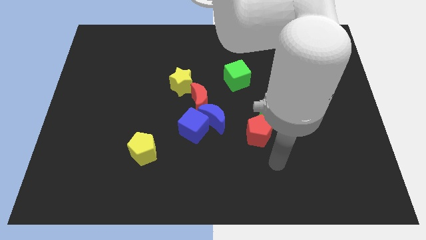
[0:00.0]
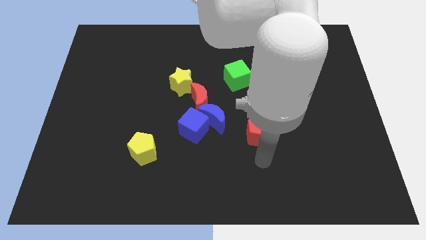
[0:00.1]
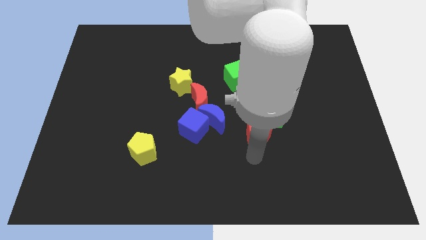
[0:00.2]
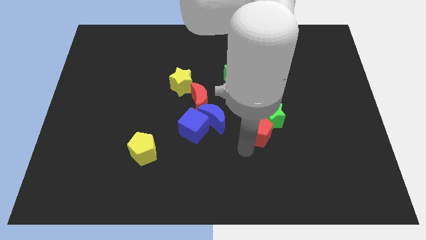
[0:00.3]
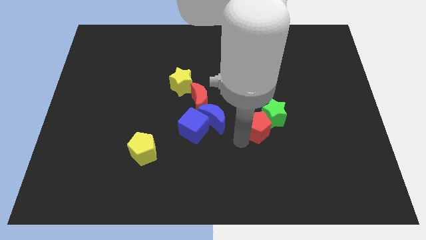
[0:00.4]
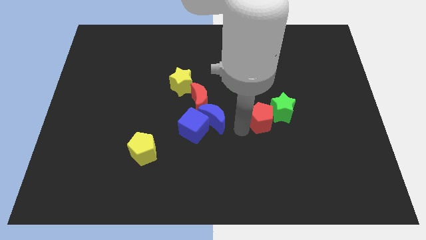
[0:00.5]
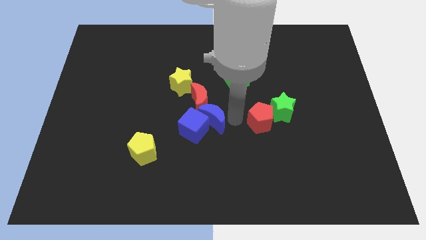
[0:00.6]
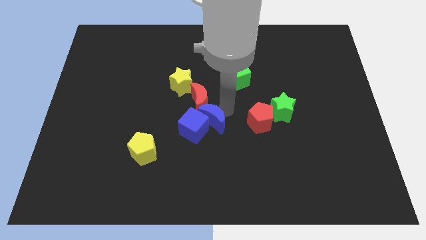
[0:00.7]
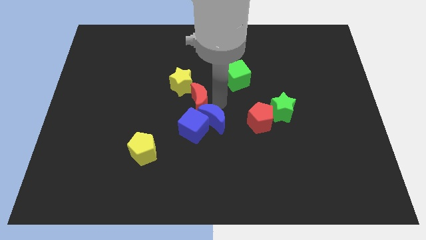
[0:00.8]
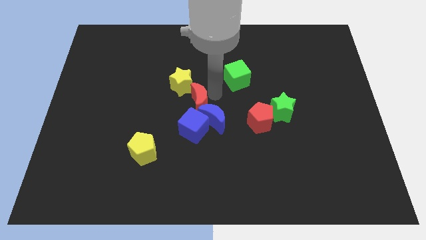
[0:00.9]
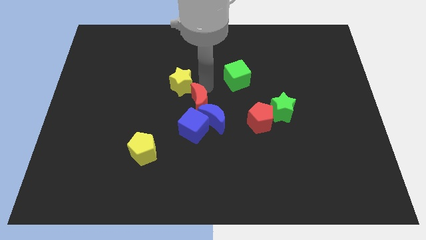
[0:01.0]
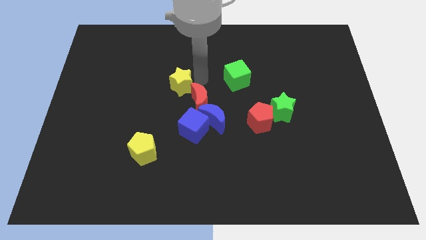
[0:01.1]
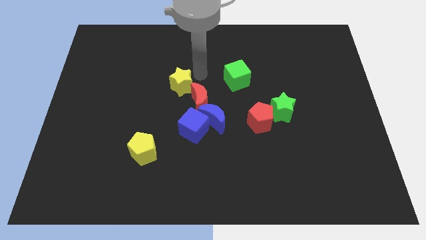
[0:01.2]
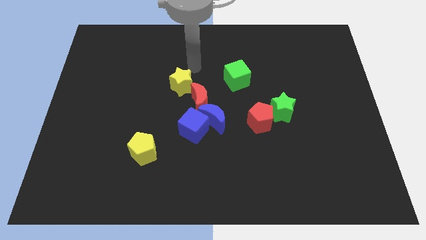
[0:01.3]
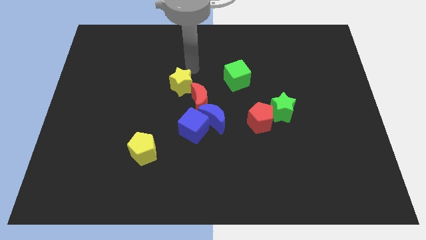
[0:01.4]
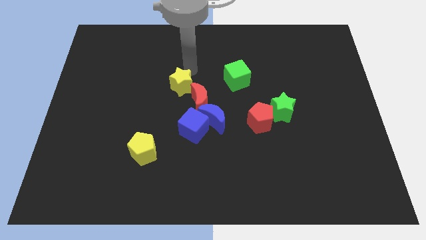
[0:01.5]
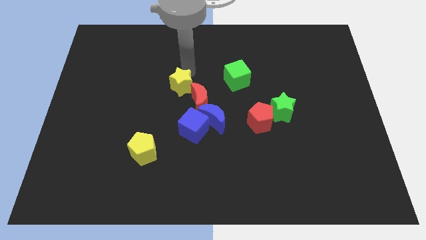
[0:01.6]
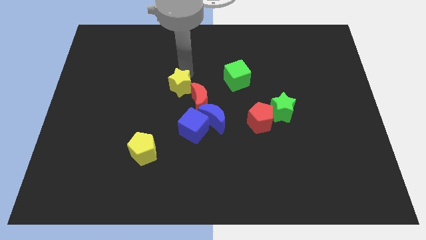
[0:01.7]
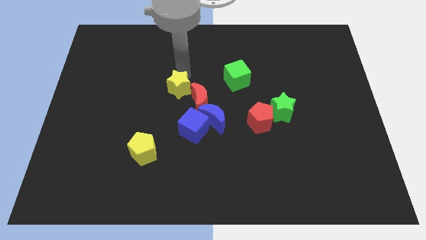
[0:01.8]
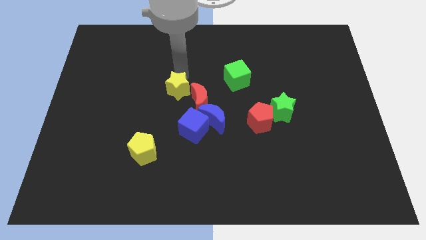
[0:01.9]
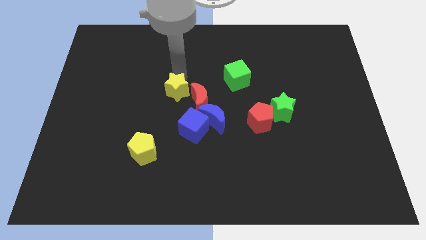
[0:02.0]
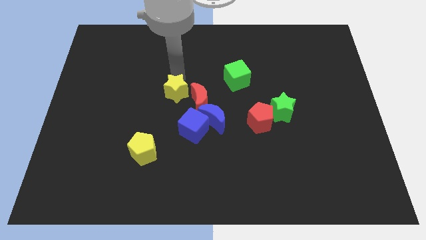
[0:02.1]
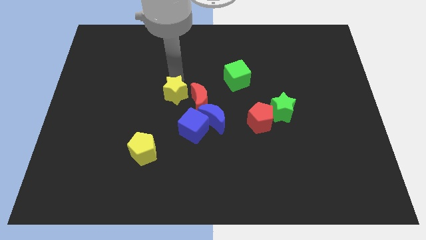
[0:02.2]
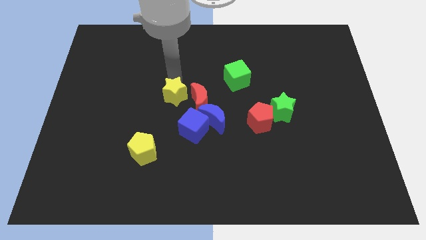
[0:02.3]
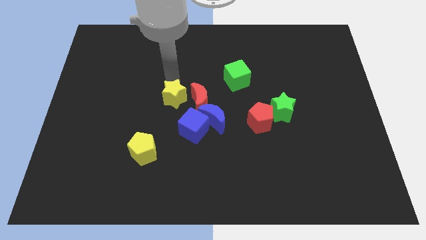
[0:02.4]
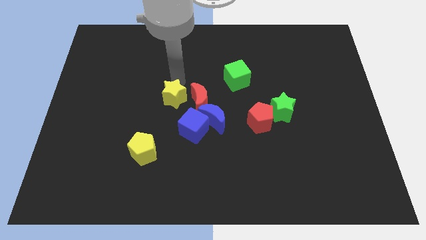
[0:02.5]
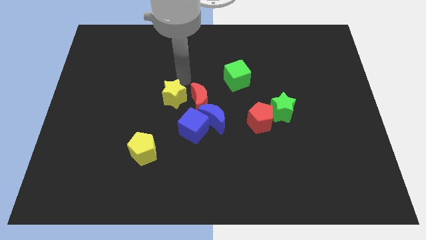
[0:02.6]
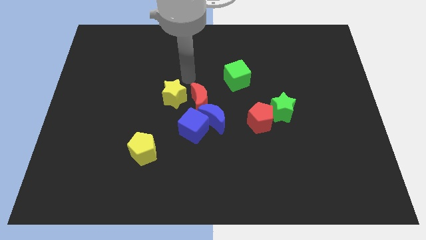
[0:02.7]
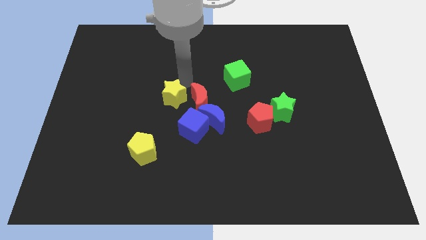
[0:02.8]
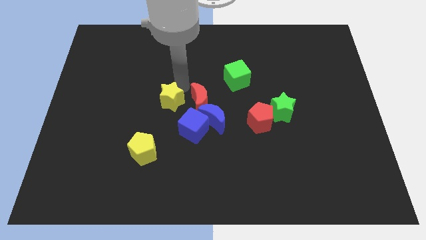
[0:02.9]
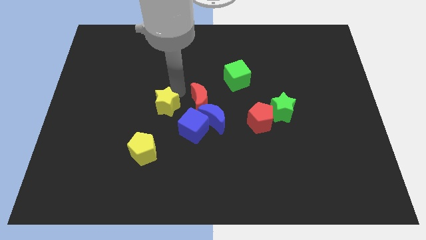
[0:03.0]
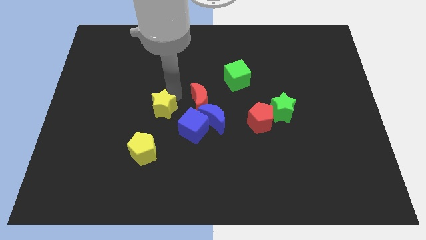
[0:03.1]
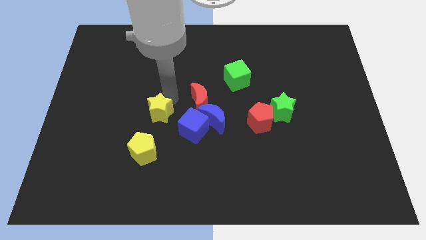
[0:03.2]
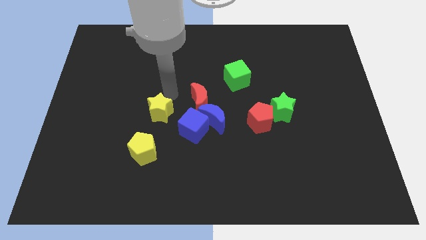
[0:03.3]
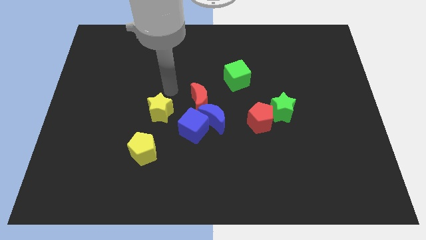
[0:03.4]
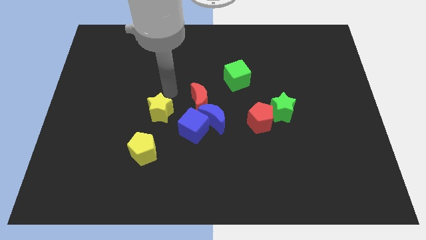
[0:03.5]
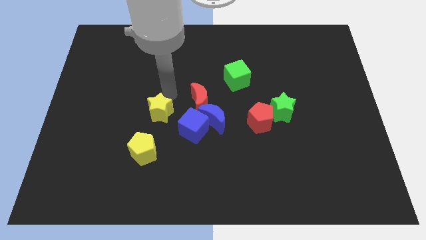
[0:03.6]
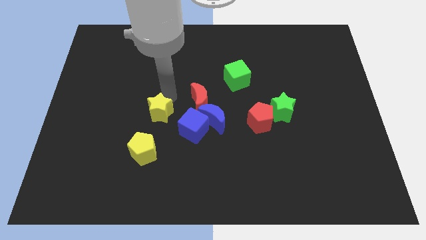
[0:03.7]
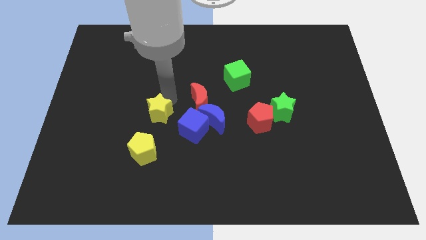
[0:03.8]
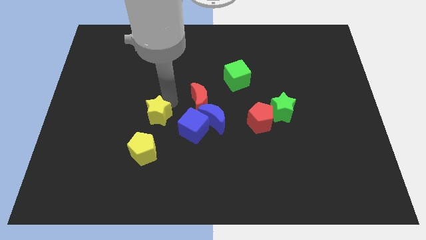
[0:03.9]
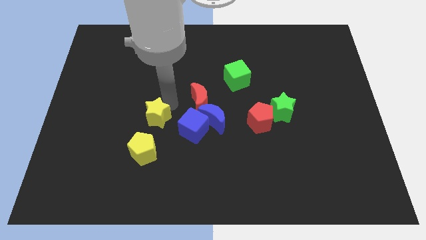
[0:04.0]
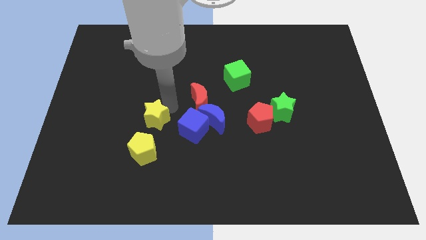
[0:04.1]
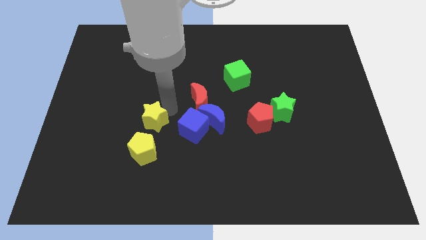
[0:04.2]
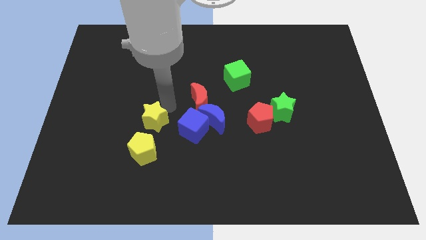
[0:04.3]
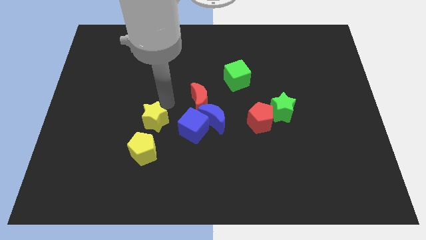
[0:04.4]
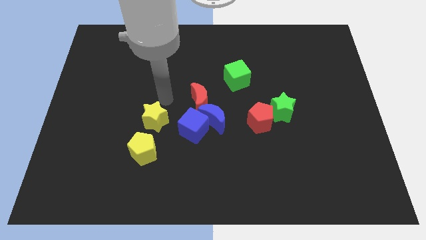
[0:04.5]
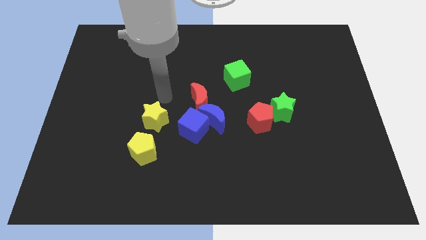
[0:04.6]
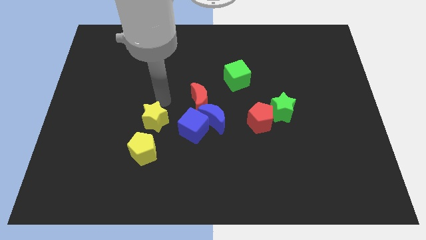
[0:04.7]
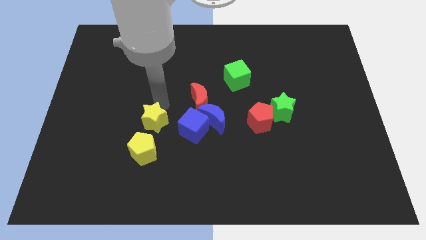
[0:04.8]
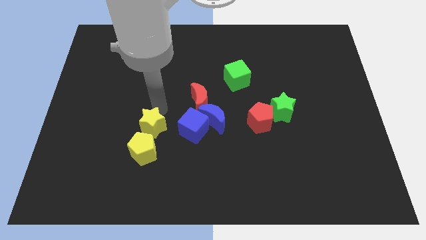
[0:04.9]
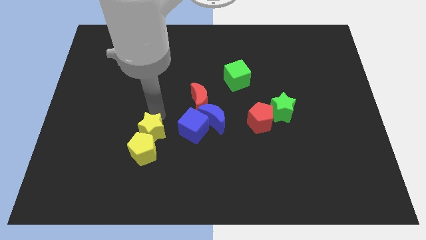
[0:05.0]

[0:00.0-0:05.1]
slide the yellow star next to the yellow pentagon

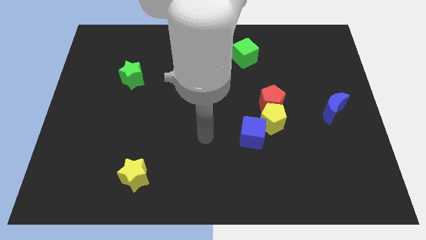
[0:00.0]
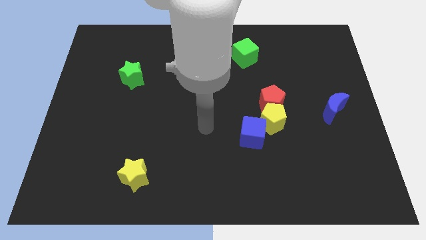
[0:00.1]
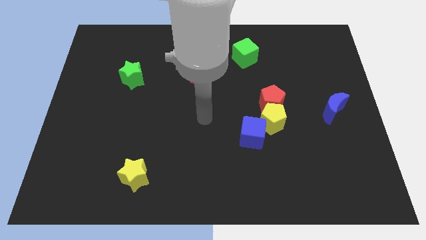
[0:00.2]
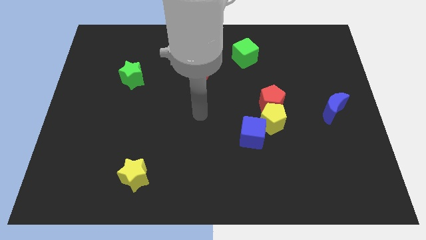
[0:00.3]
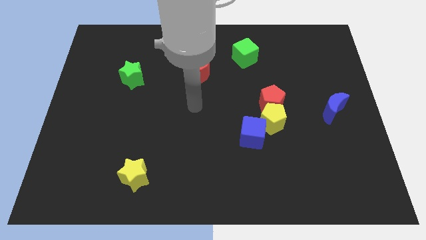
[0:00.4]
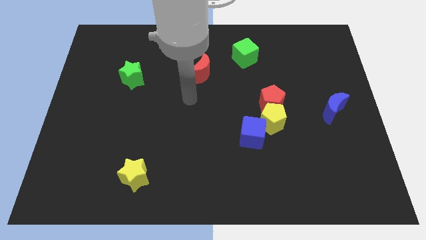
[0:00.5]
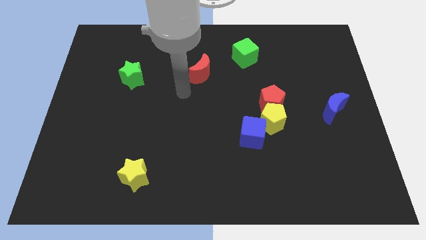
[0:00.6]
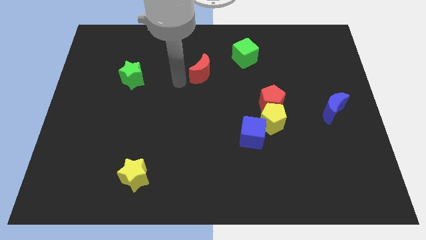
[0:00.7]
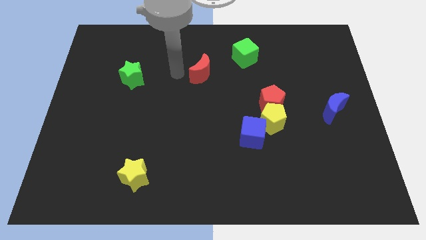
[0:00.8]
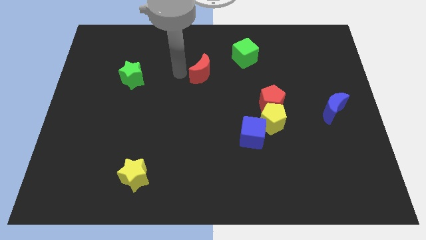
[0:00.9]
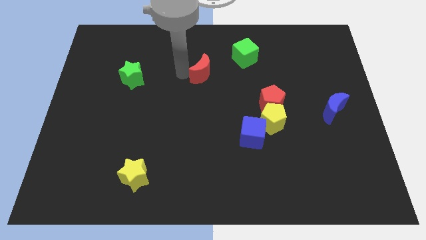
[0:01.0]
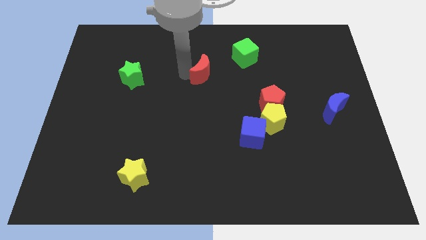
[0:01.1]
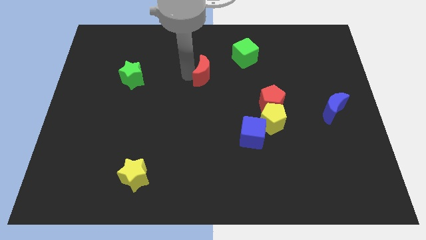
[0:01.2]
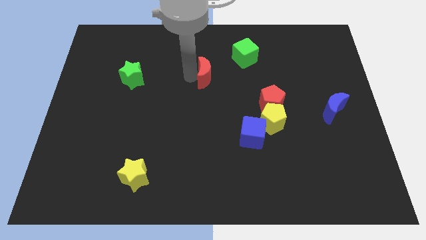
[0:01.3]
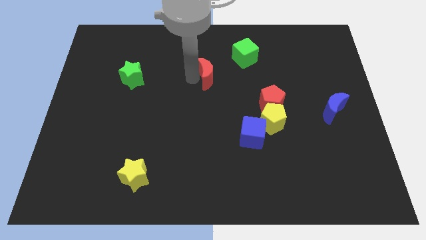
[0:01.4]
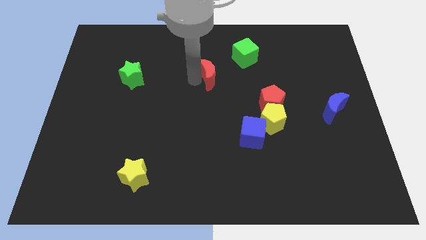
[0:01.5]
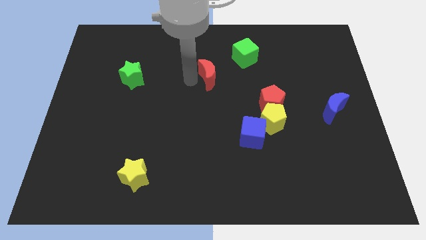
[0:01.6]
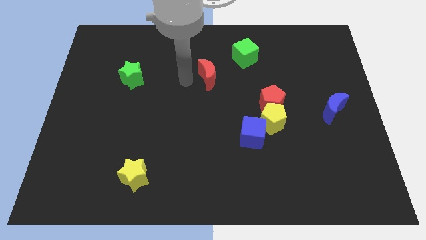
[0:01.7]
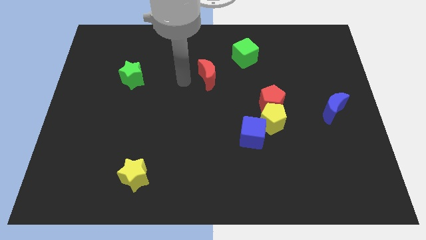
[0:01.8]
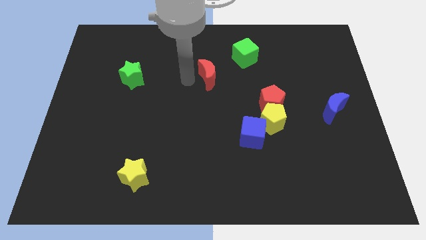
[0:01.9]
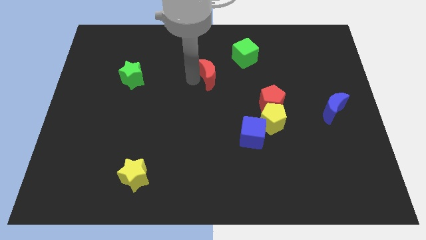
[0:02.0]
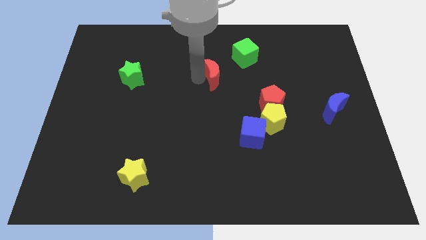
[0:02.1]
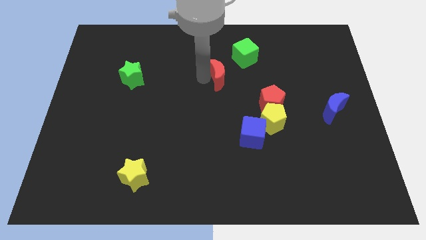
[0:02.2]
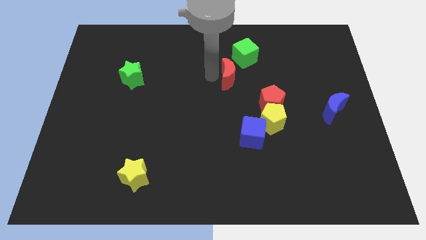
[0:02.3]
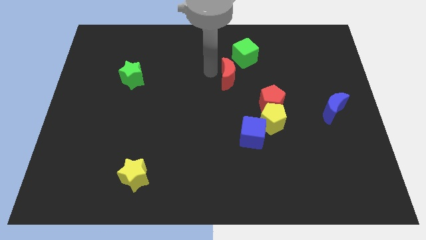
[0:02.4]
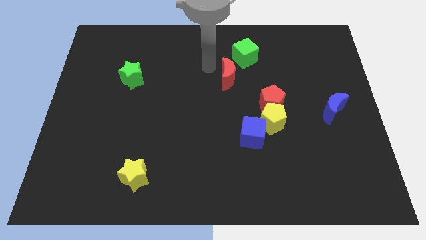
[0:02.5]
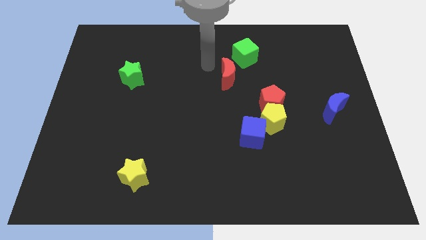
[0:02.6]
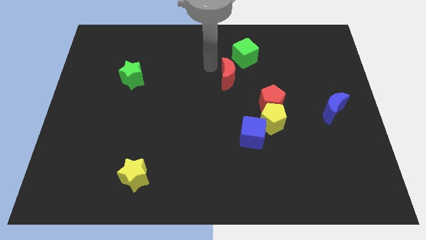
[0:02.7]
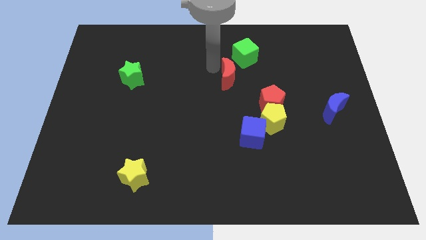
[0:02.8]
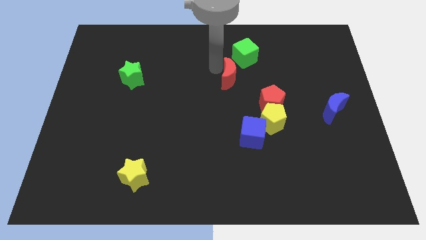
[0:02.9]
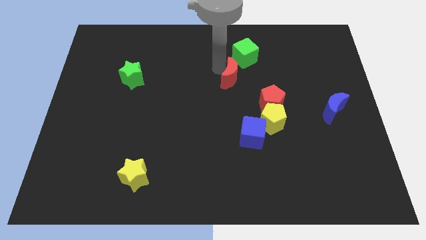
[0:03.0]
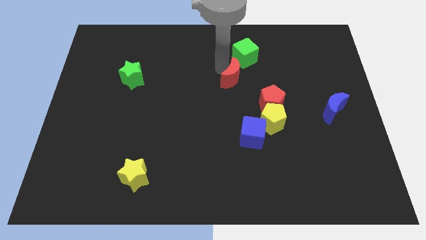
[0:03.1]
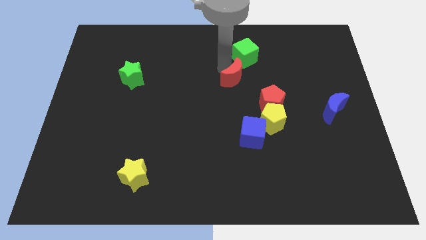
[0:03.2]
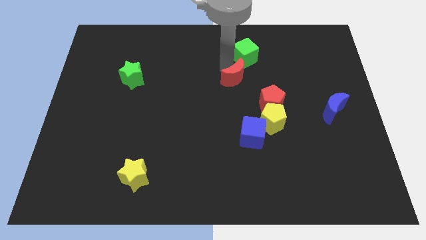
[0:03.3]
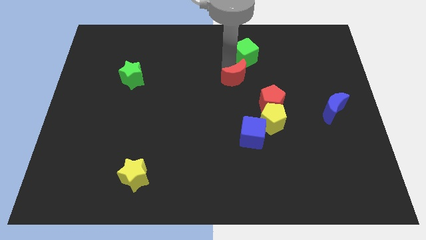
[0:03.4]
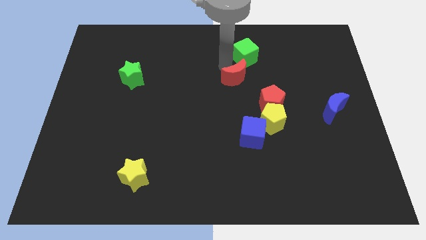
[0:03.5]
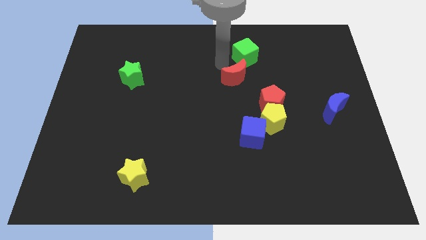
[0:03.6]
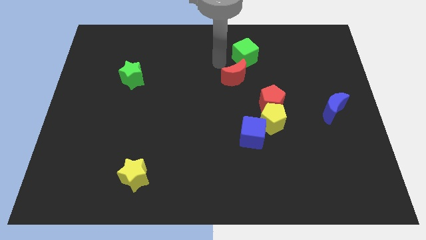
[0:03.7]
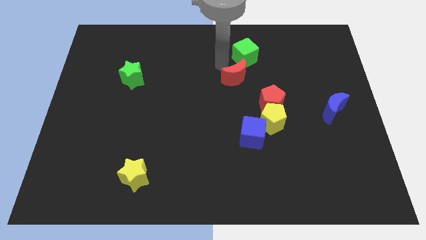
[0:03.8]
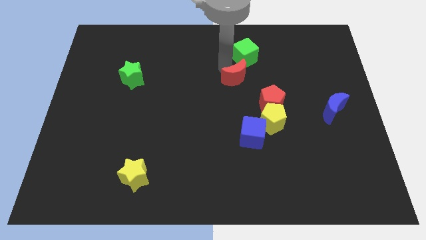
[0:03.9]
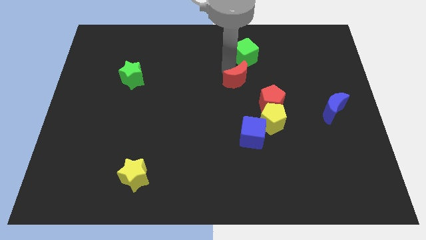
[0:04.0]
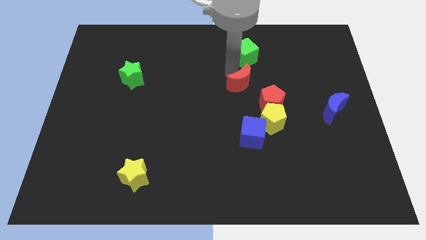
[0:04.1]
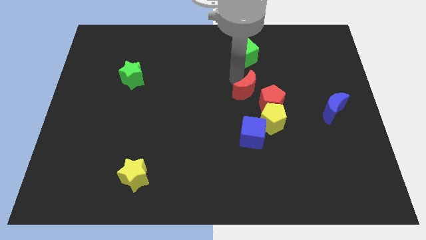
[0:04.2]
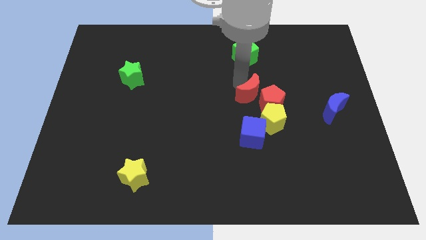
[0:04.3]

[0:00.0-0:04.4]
push the red moon to the red pentagon
